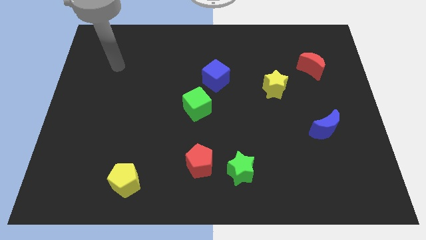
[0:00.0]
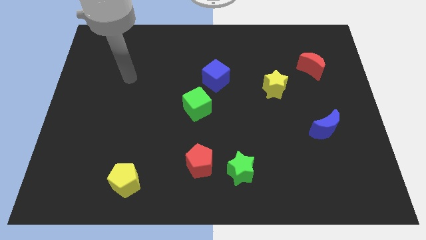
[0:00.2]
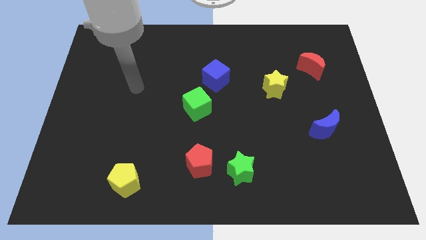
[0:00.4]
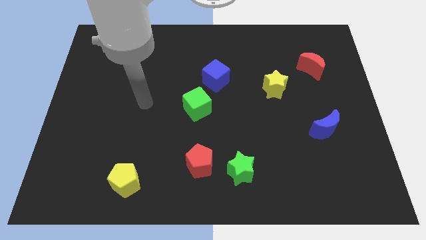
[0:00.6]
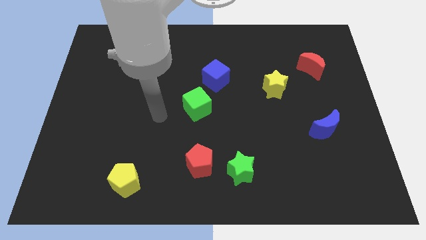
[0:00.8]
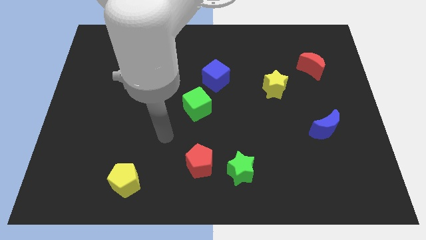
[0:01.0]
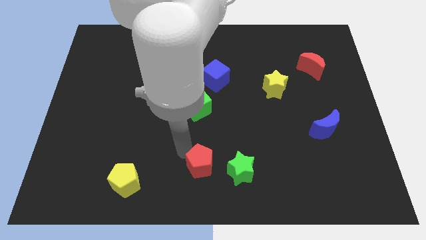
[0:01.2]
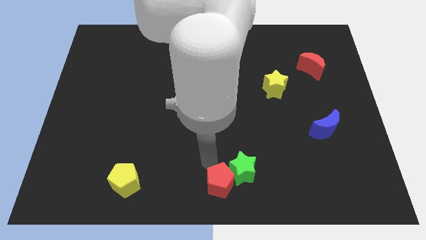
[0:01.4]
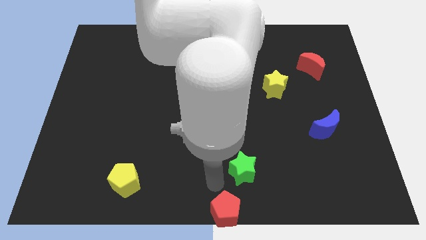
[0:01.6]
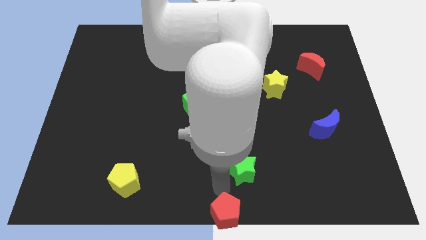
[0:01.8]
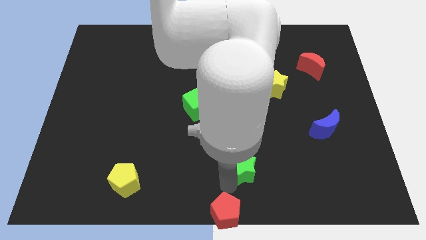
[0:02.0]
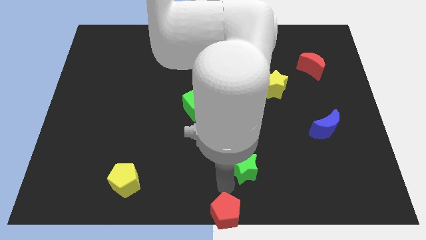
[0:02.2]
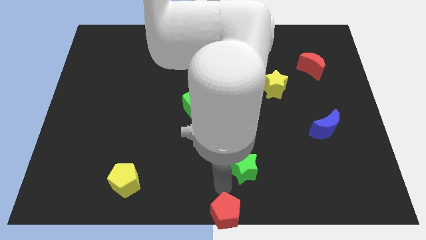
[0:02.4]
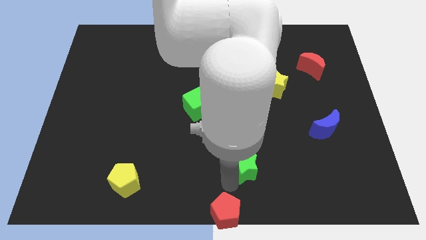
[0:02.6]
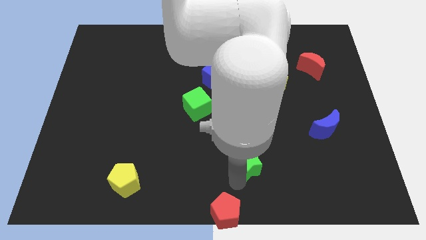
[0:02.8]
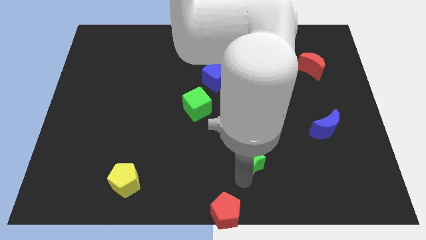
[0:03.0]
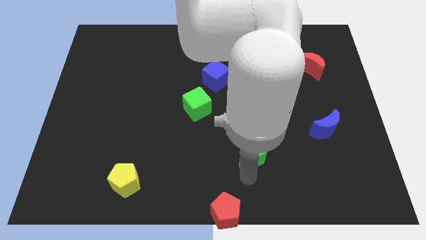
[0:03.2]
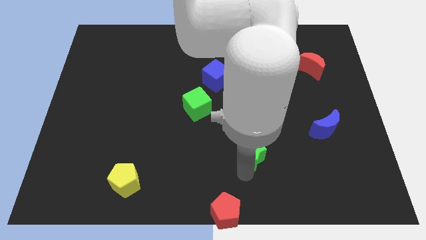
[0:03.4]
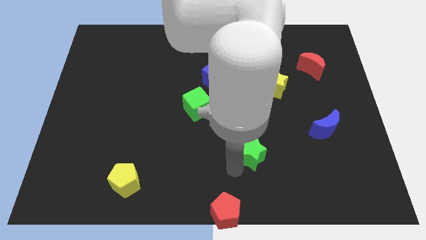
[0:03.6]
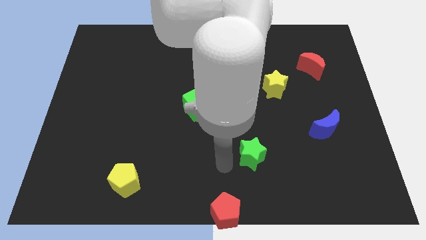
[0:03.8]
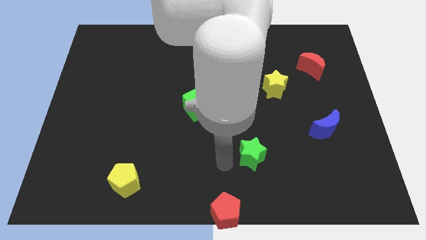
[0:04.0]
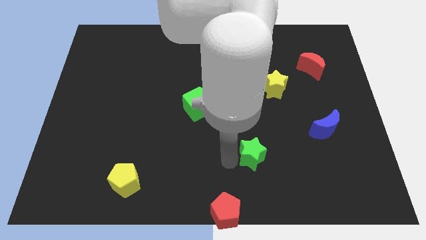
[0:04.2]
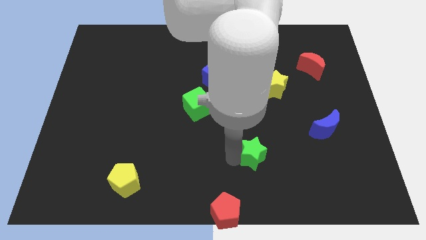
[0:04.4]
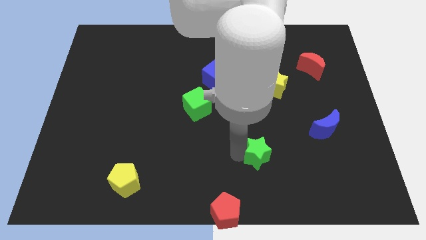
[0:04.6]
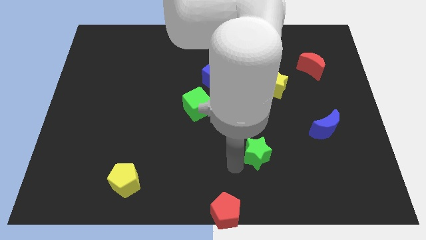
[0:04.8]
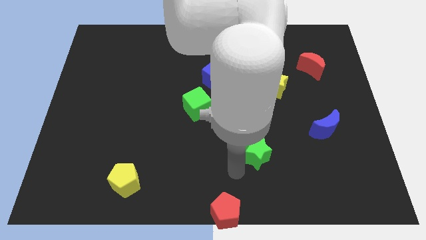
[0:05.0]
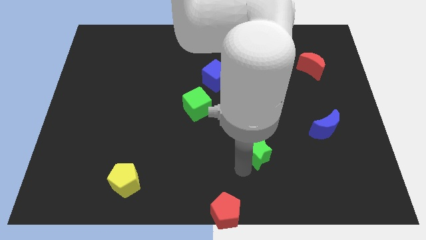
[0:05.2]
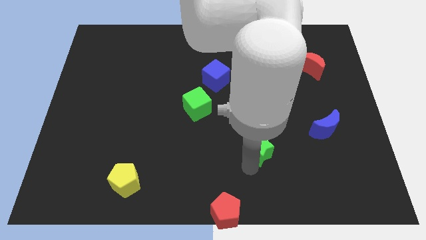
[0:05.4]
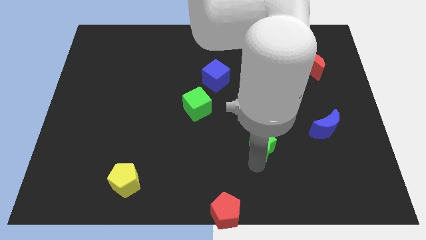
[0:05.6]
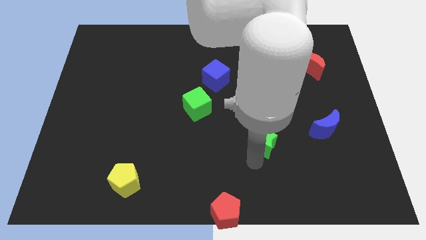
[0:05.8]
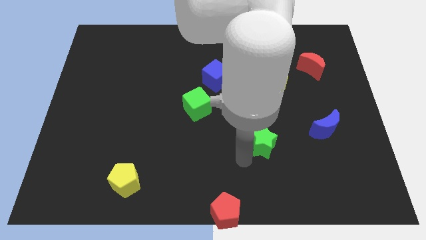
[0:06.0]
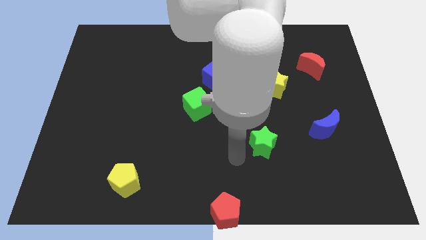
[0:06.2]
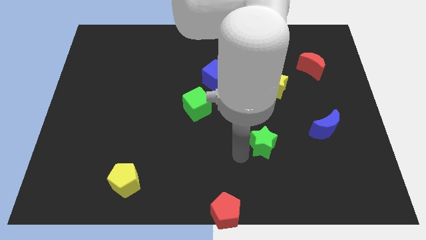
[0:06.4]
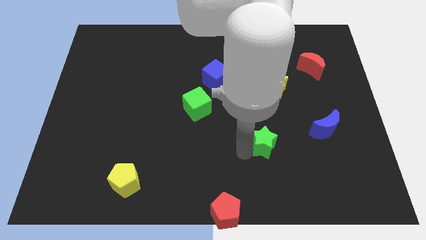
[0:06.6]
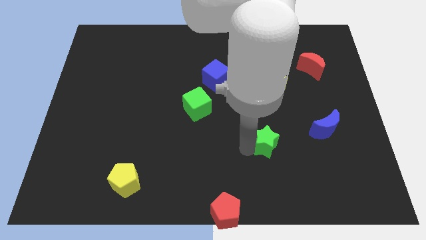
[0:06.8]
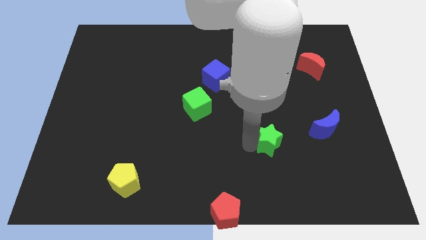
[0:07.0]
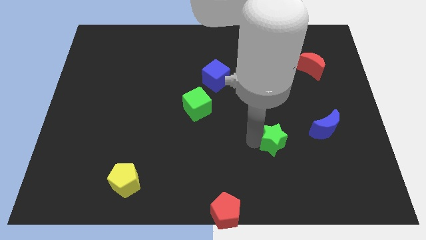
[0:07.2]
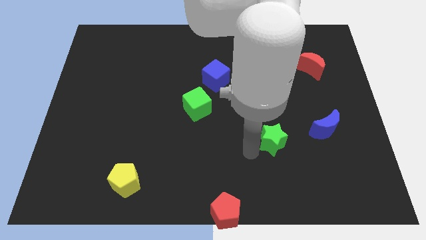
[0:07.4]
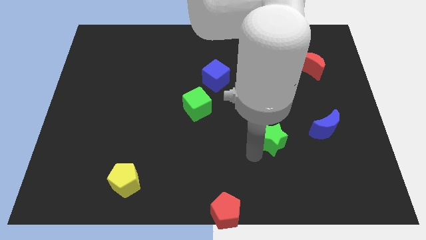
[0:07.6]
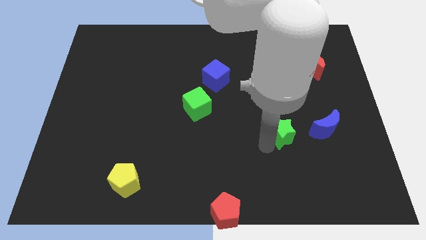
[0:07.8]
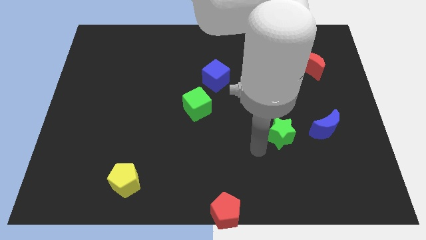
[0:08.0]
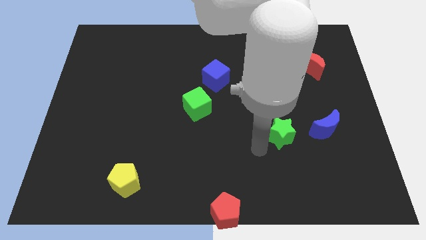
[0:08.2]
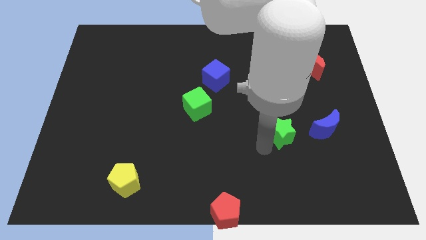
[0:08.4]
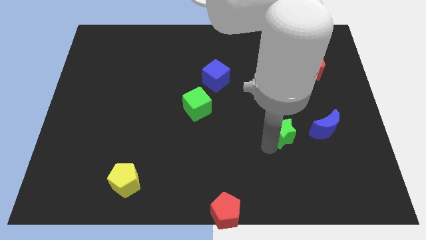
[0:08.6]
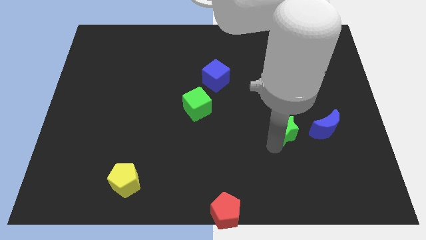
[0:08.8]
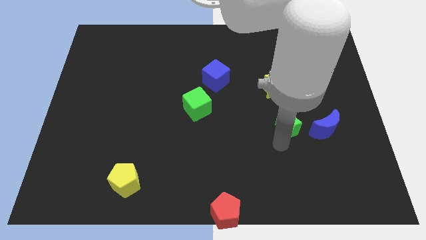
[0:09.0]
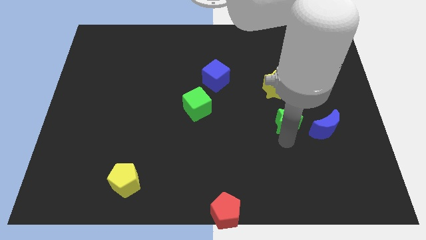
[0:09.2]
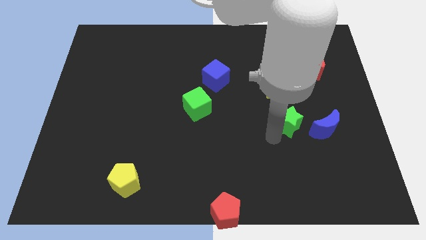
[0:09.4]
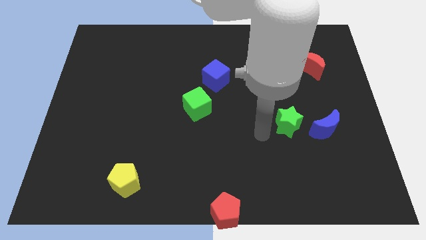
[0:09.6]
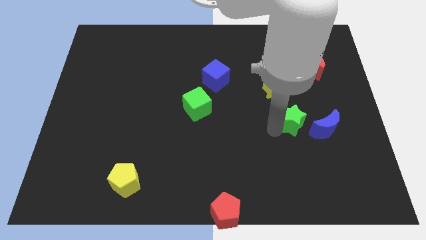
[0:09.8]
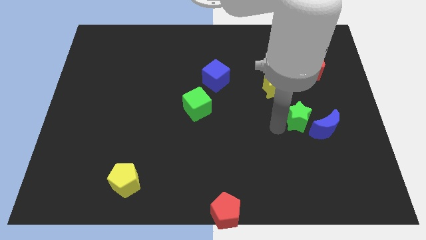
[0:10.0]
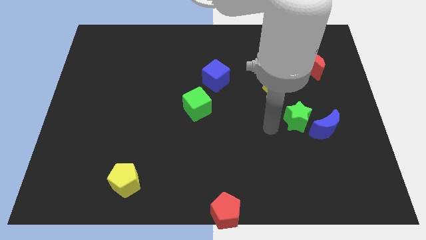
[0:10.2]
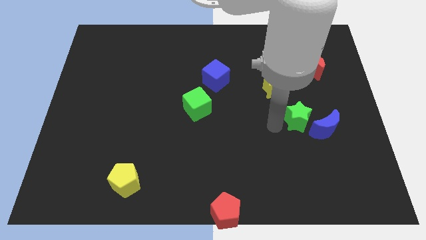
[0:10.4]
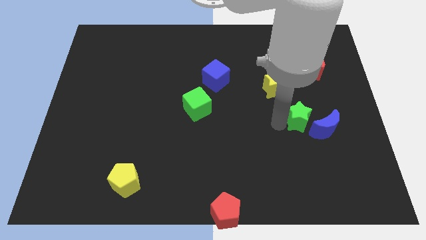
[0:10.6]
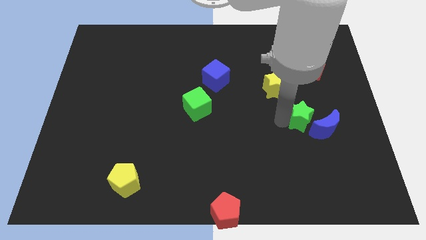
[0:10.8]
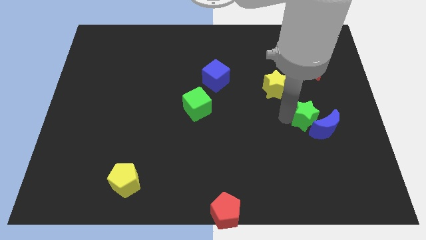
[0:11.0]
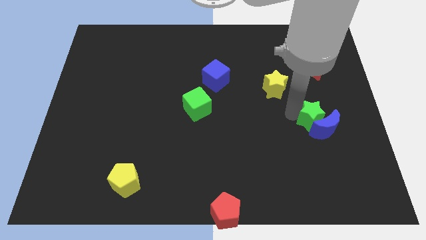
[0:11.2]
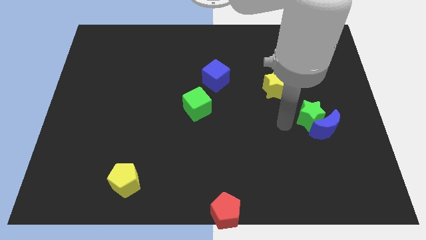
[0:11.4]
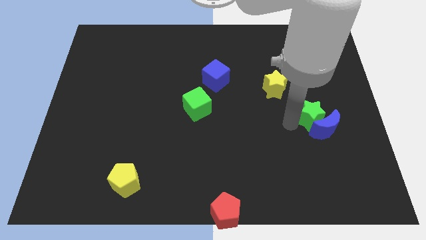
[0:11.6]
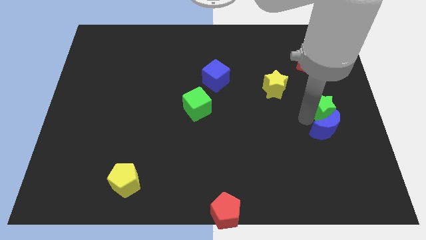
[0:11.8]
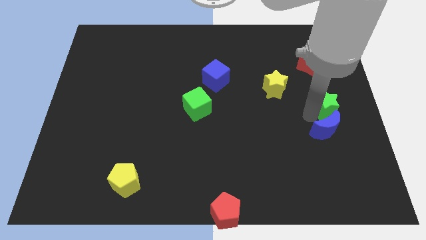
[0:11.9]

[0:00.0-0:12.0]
move the green star to the right side

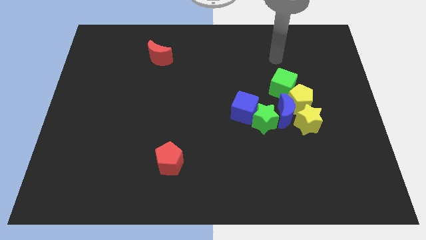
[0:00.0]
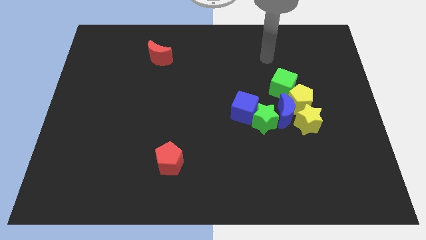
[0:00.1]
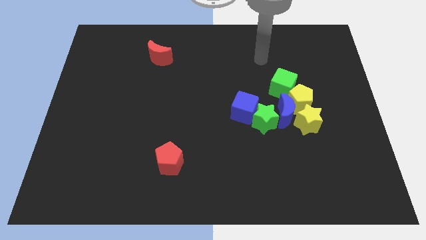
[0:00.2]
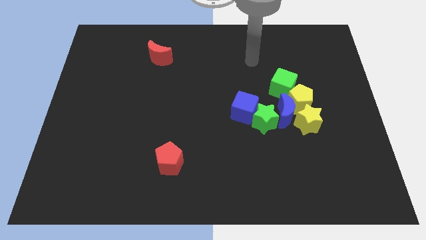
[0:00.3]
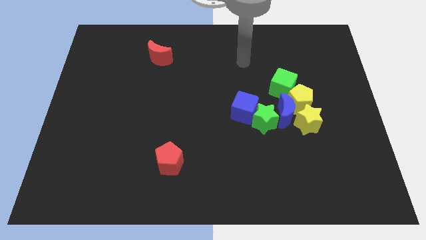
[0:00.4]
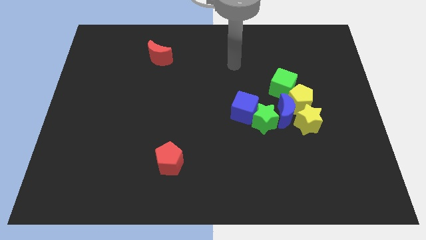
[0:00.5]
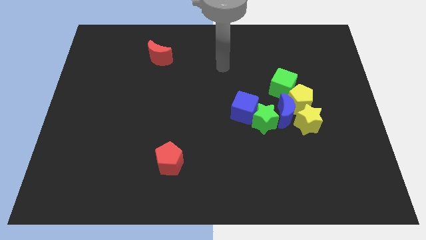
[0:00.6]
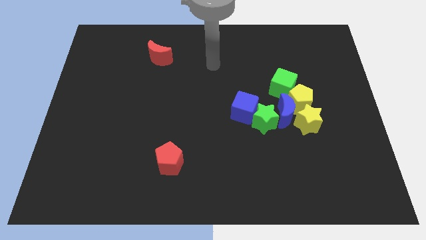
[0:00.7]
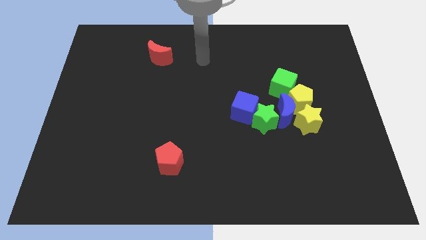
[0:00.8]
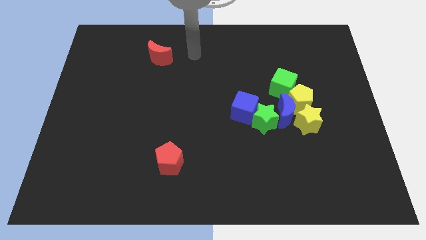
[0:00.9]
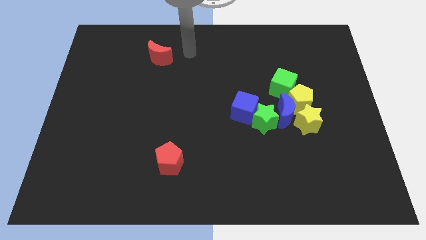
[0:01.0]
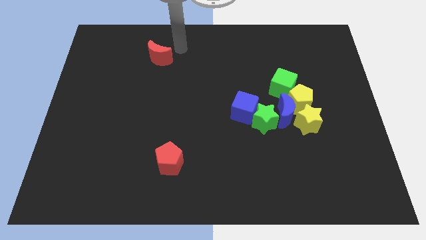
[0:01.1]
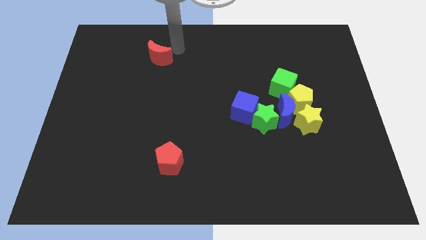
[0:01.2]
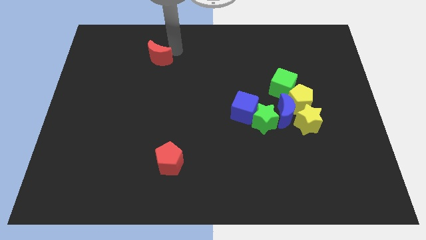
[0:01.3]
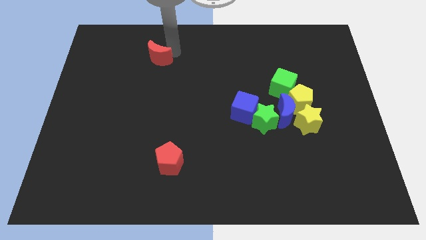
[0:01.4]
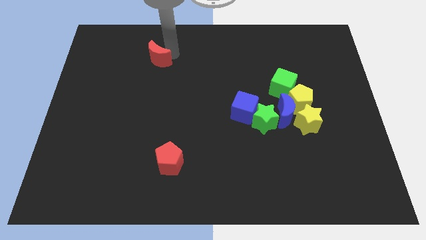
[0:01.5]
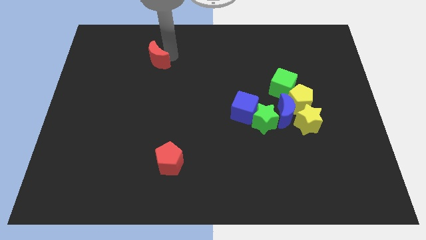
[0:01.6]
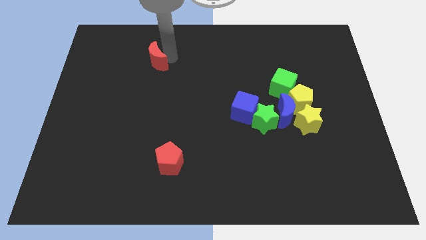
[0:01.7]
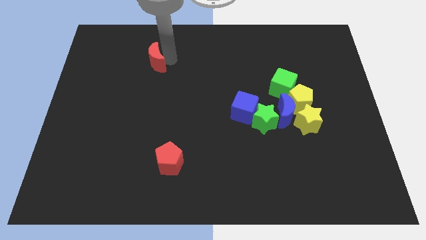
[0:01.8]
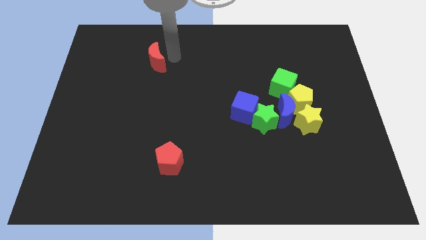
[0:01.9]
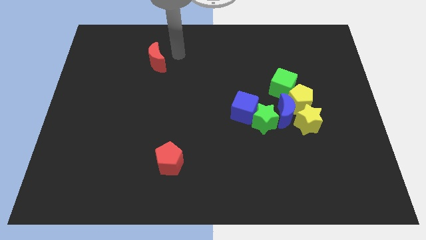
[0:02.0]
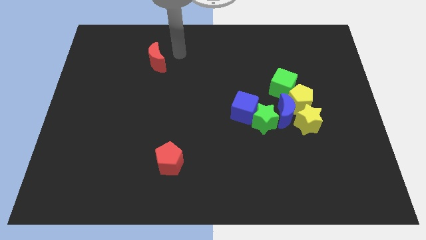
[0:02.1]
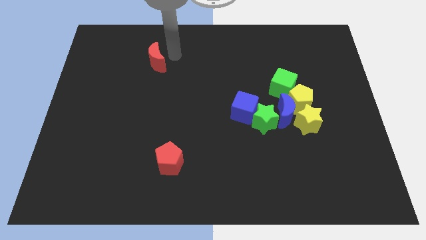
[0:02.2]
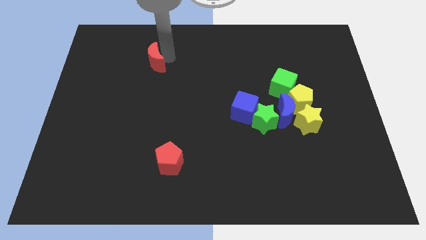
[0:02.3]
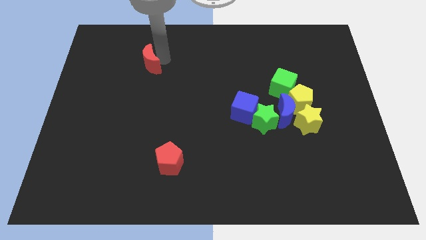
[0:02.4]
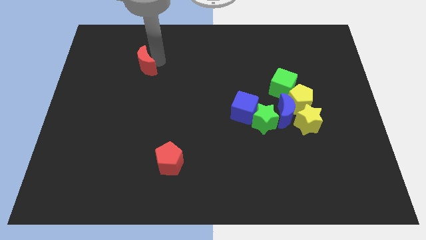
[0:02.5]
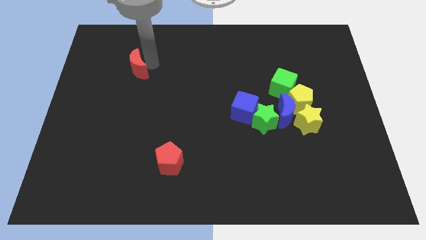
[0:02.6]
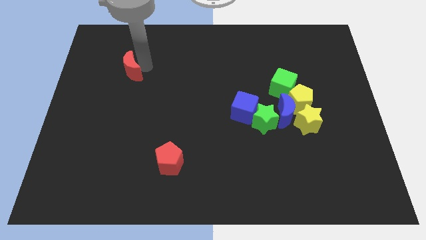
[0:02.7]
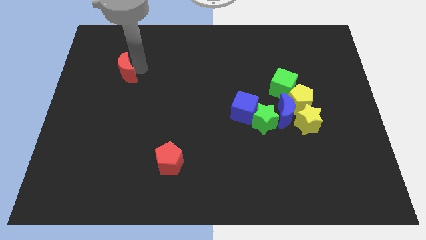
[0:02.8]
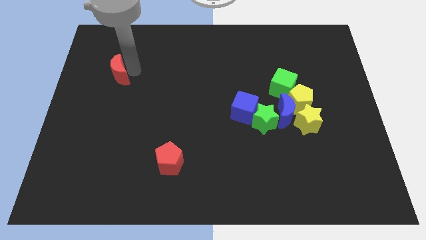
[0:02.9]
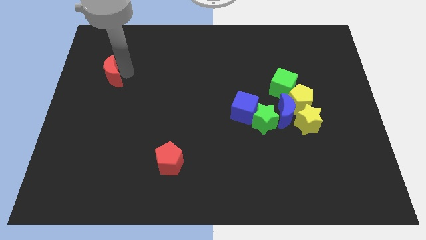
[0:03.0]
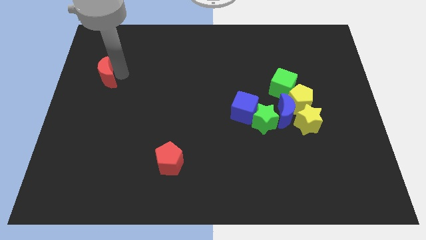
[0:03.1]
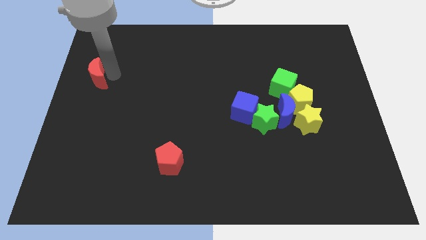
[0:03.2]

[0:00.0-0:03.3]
move the red moon to the center left
